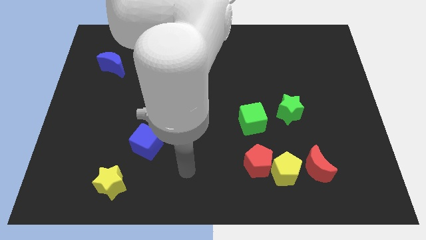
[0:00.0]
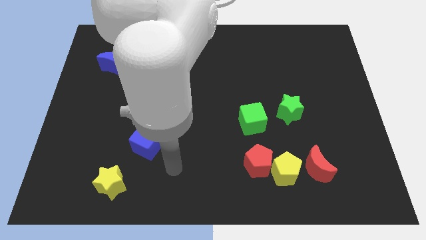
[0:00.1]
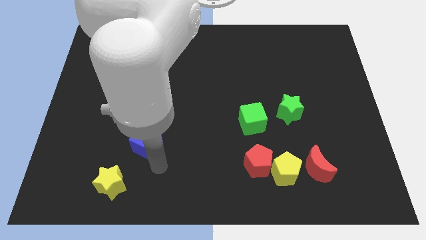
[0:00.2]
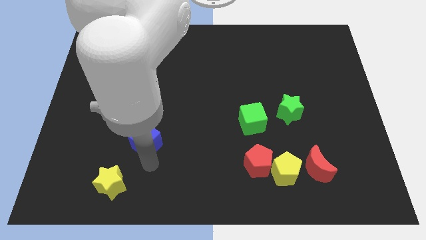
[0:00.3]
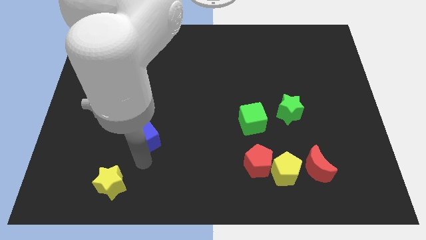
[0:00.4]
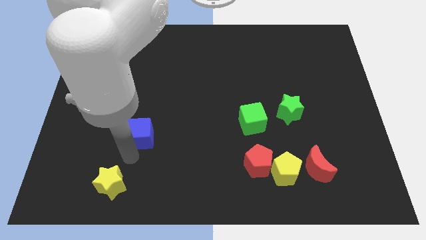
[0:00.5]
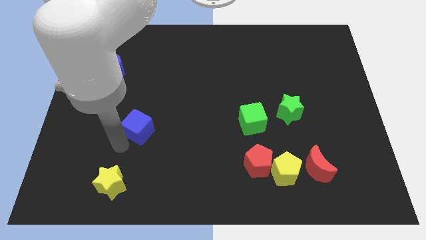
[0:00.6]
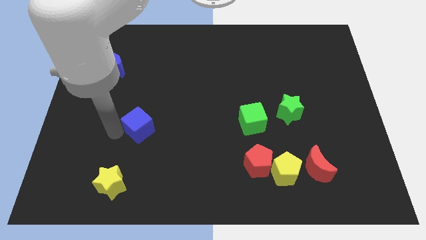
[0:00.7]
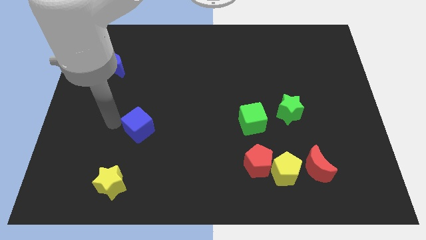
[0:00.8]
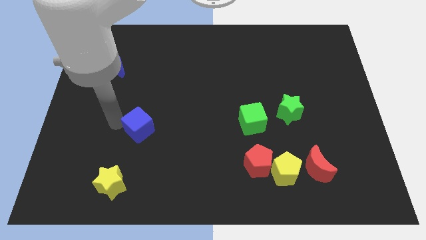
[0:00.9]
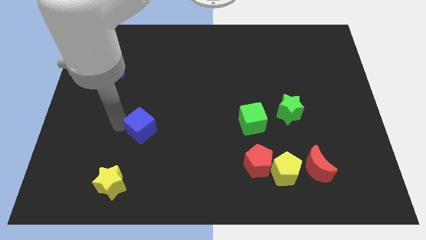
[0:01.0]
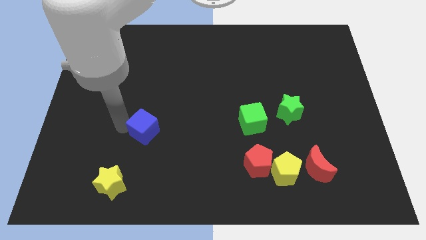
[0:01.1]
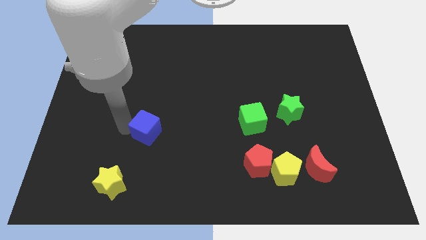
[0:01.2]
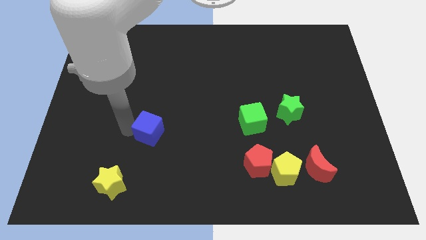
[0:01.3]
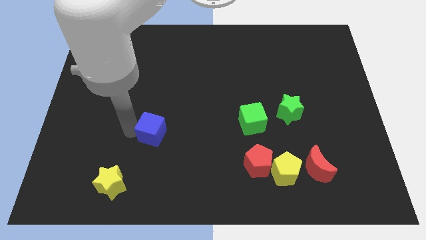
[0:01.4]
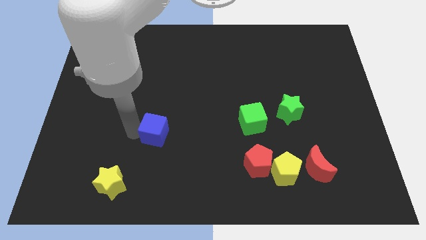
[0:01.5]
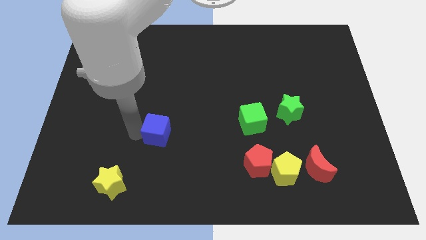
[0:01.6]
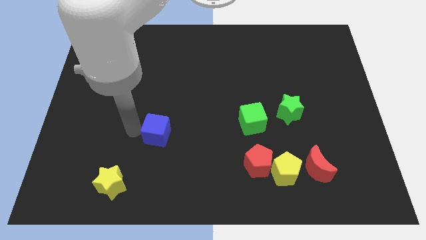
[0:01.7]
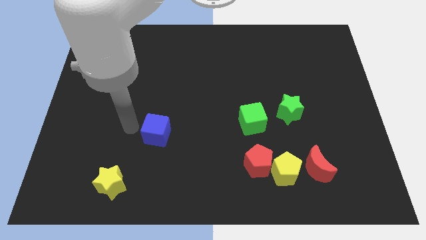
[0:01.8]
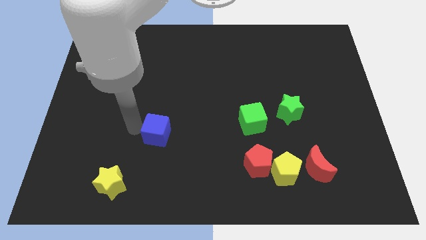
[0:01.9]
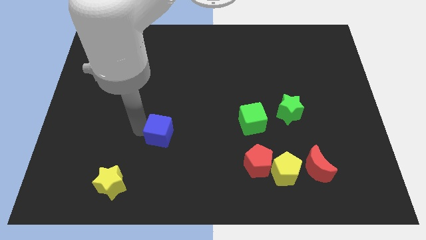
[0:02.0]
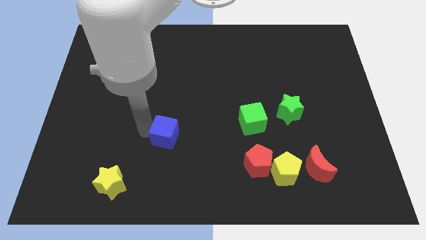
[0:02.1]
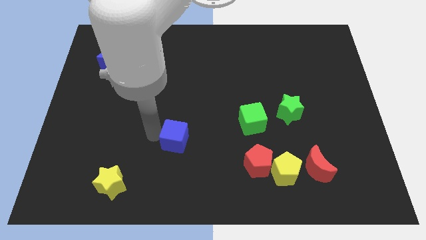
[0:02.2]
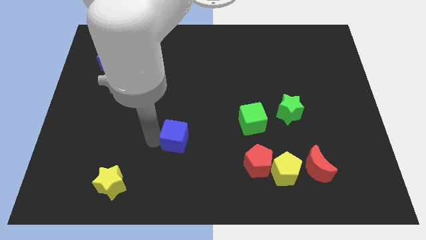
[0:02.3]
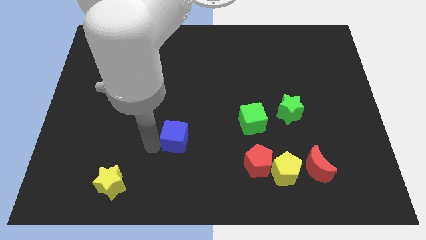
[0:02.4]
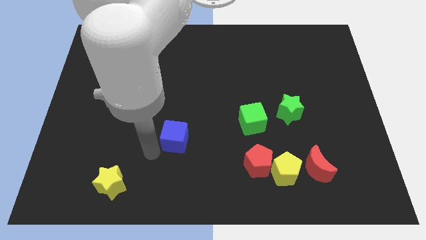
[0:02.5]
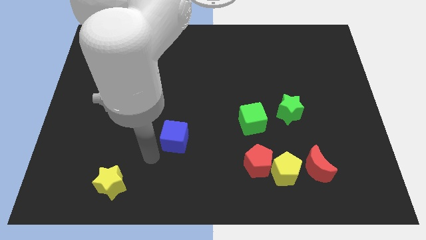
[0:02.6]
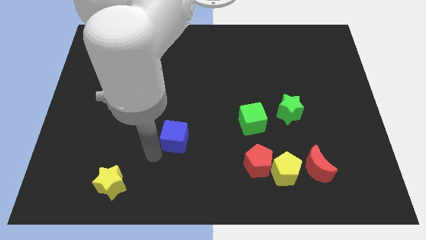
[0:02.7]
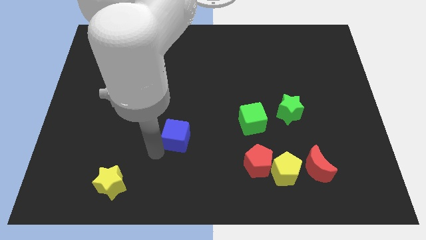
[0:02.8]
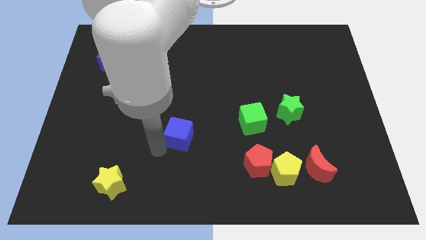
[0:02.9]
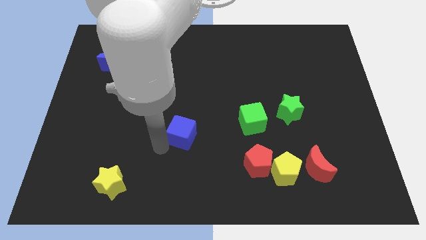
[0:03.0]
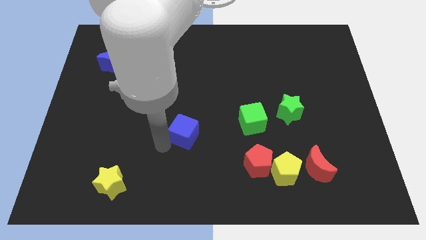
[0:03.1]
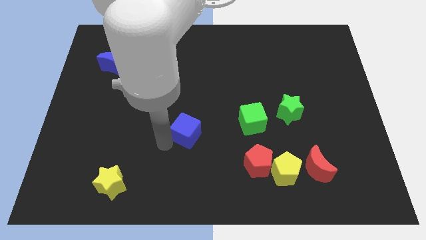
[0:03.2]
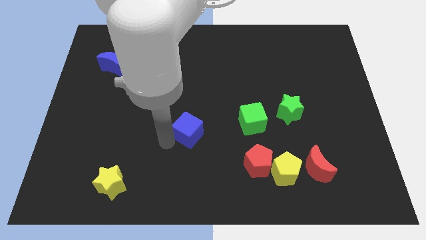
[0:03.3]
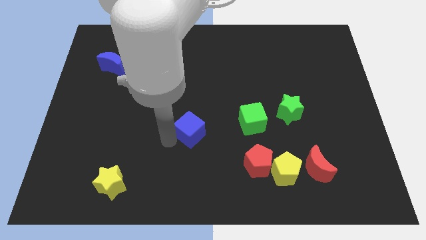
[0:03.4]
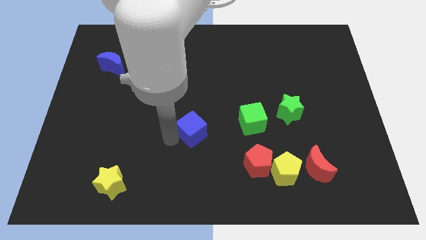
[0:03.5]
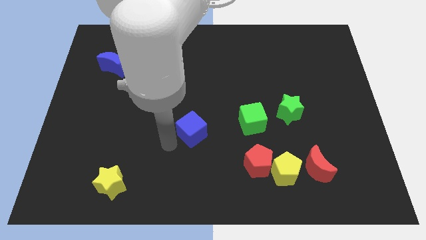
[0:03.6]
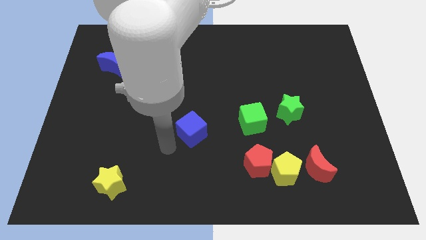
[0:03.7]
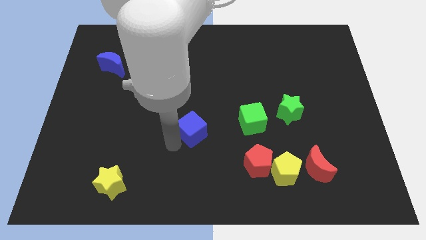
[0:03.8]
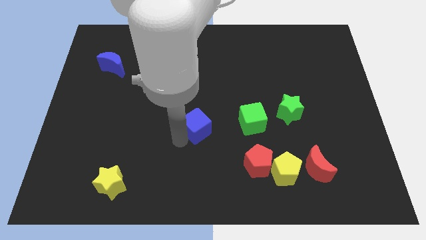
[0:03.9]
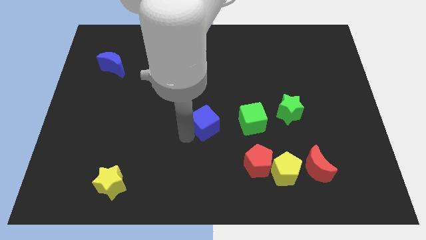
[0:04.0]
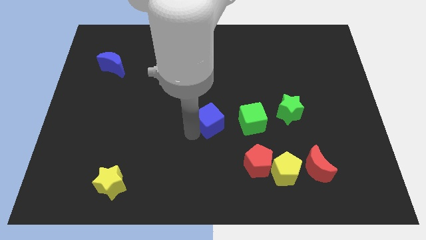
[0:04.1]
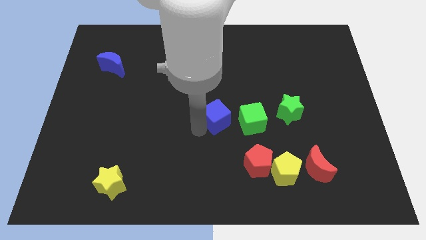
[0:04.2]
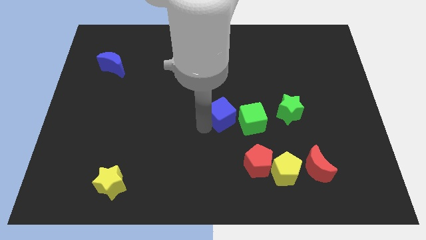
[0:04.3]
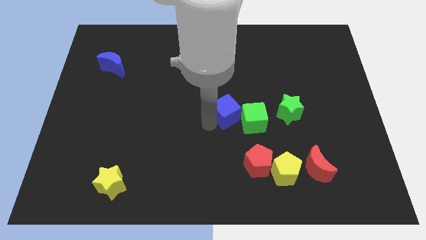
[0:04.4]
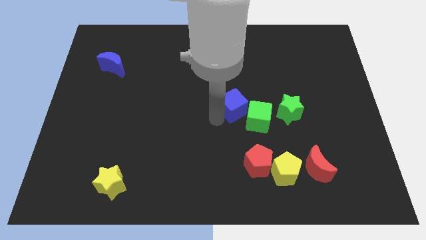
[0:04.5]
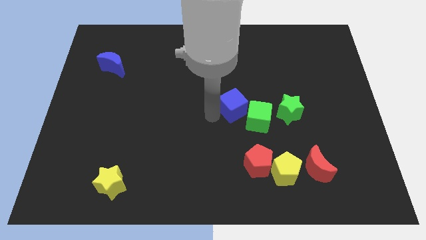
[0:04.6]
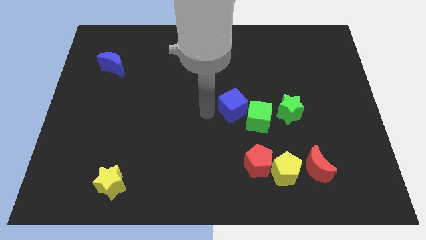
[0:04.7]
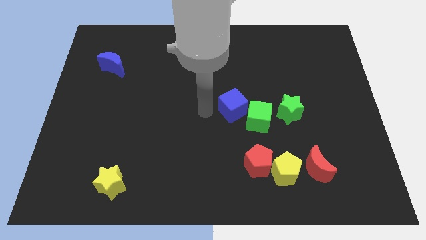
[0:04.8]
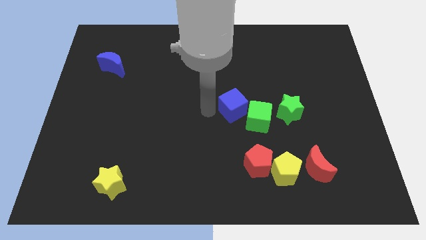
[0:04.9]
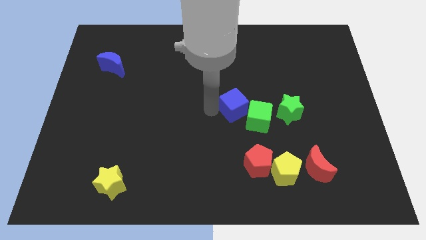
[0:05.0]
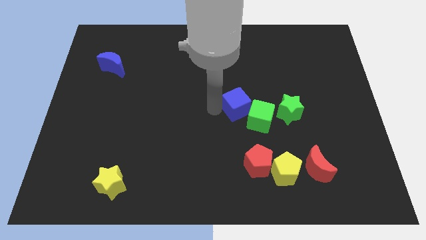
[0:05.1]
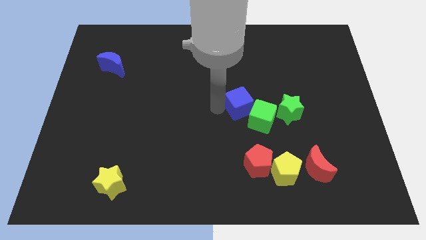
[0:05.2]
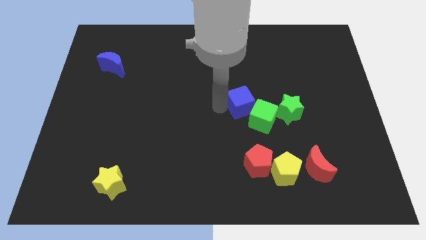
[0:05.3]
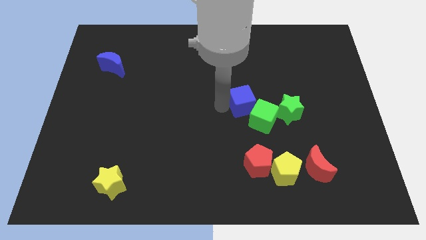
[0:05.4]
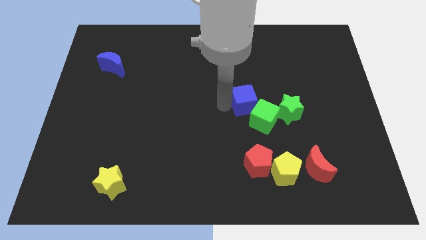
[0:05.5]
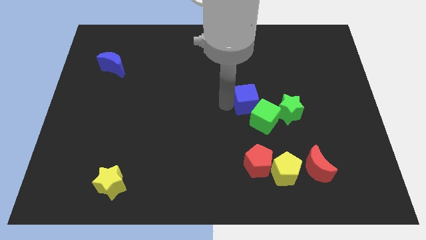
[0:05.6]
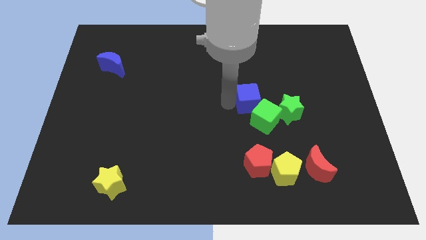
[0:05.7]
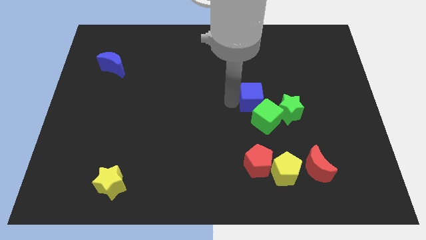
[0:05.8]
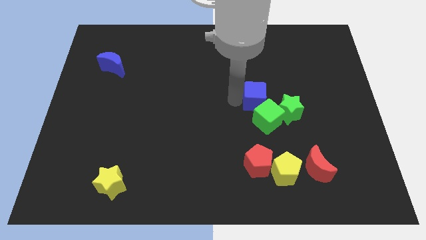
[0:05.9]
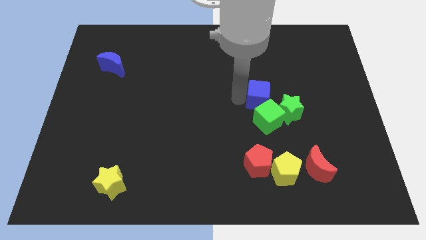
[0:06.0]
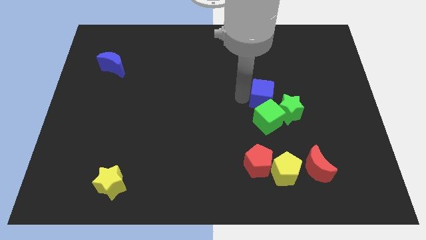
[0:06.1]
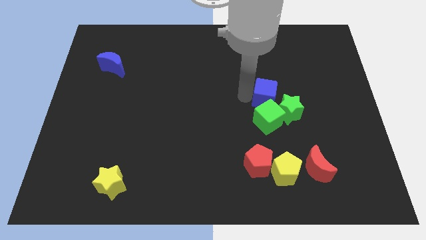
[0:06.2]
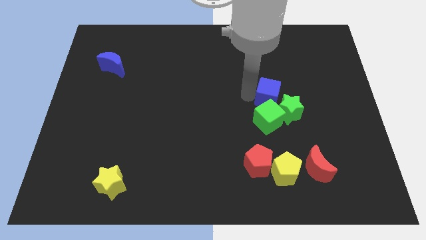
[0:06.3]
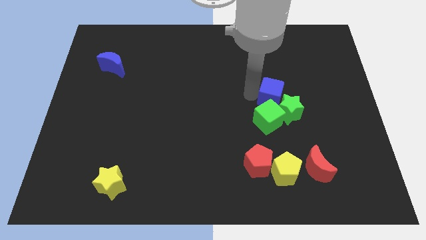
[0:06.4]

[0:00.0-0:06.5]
push the blue cube next to the green star
